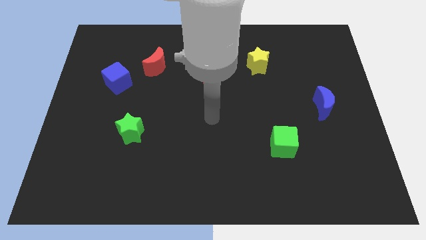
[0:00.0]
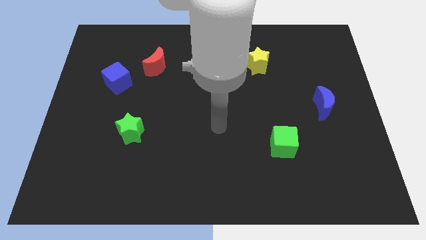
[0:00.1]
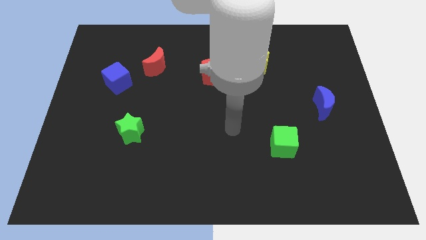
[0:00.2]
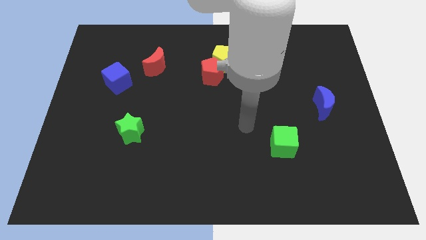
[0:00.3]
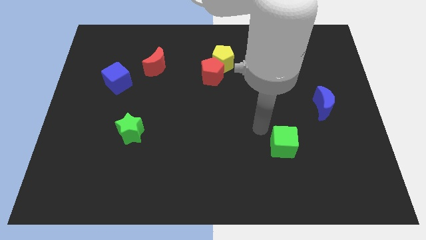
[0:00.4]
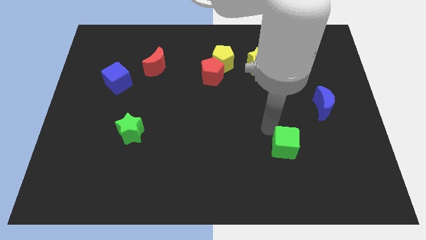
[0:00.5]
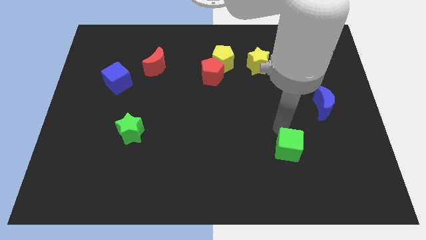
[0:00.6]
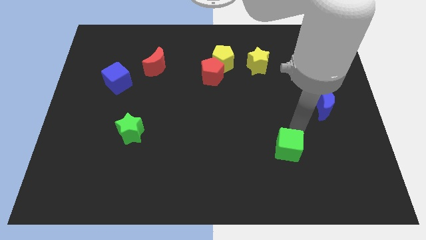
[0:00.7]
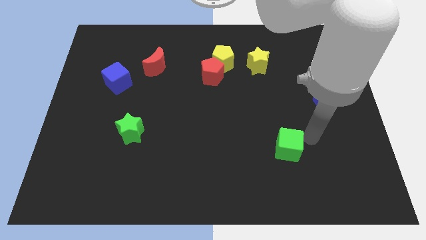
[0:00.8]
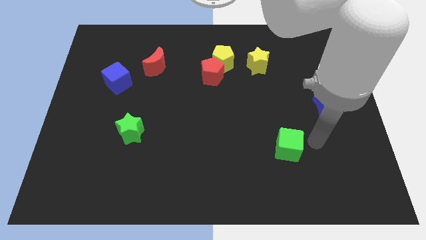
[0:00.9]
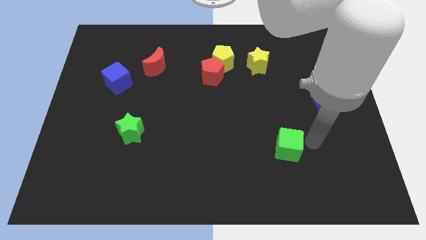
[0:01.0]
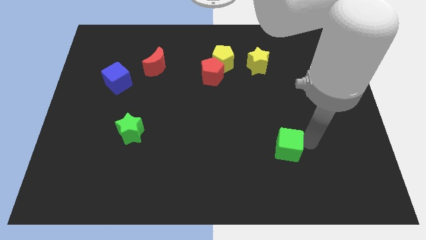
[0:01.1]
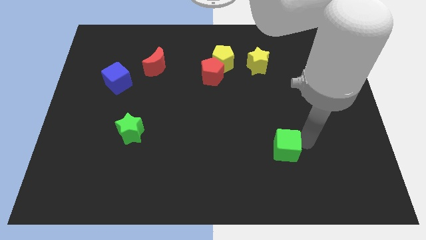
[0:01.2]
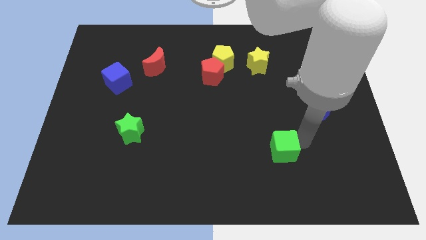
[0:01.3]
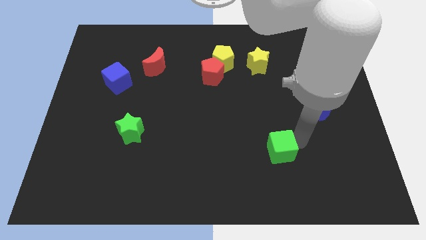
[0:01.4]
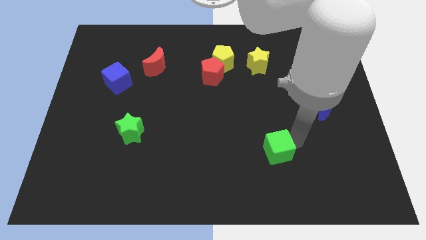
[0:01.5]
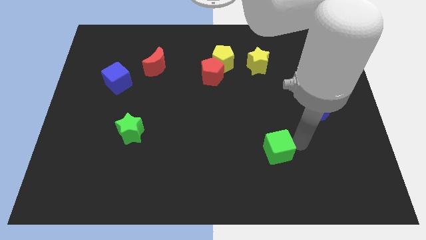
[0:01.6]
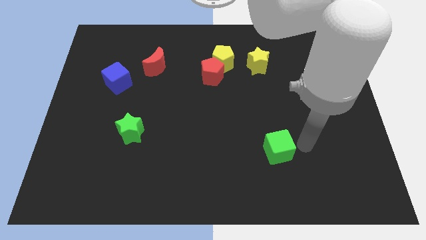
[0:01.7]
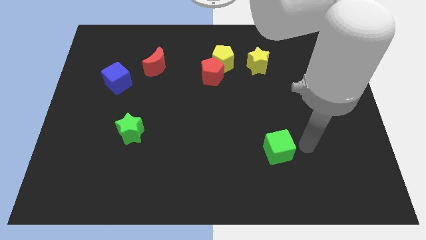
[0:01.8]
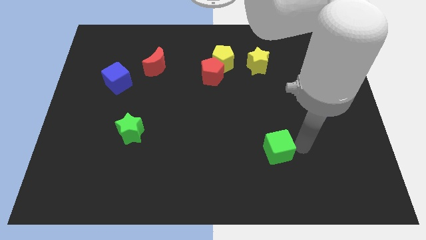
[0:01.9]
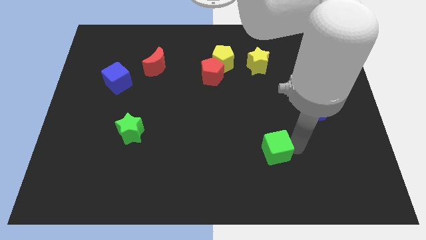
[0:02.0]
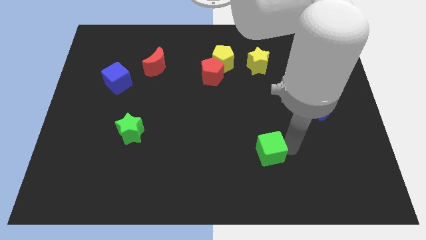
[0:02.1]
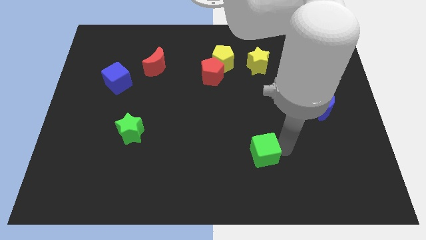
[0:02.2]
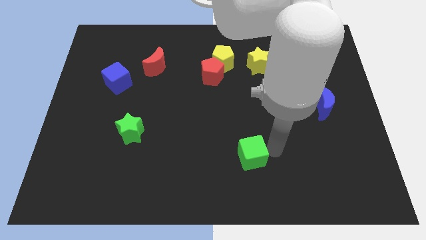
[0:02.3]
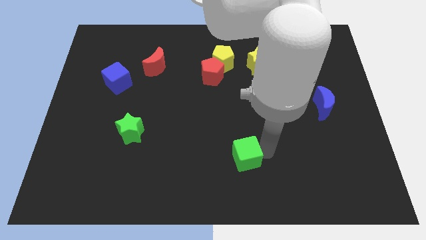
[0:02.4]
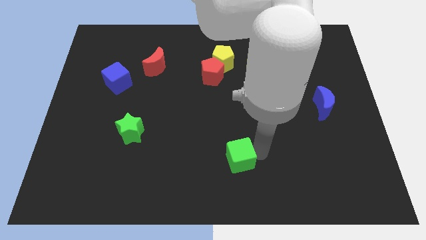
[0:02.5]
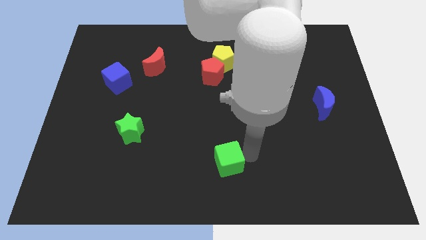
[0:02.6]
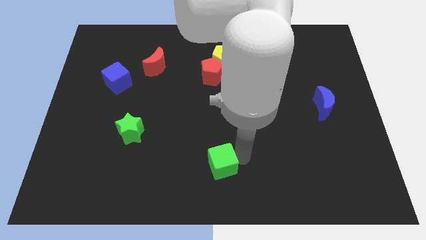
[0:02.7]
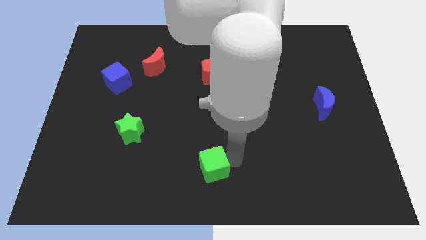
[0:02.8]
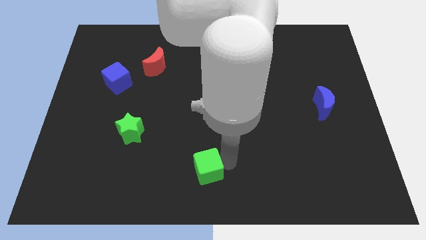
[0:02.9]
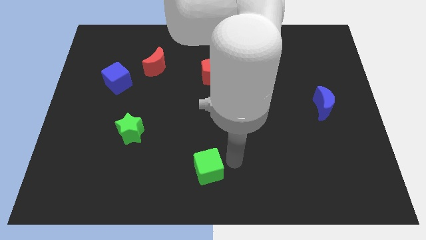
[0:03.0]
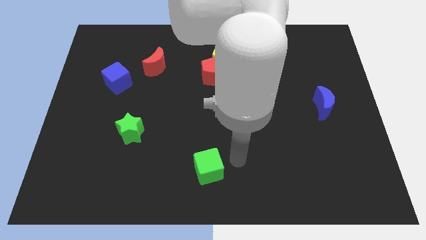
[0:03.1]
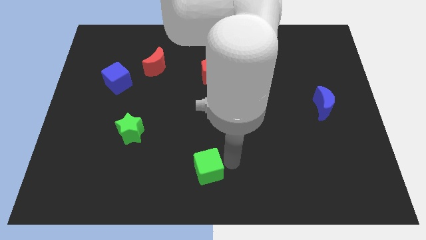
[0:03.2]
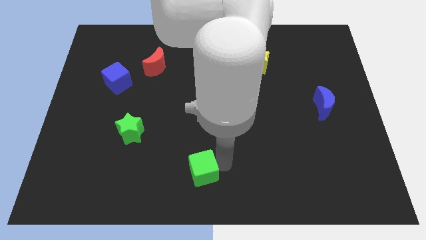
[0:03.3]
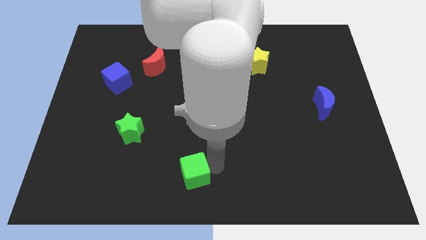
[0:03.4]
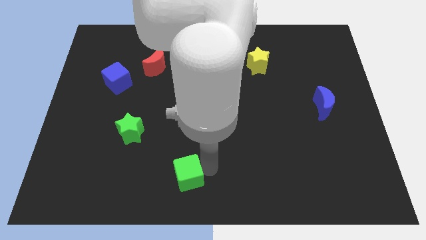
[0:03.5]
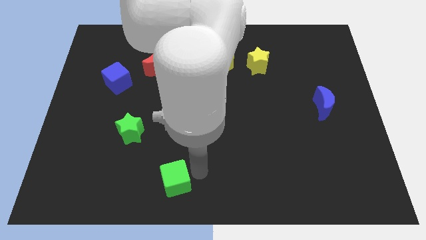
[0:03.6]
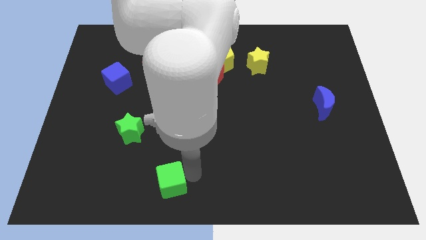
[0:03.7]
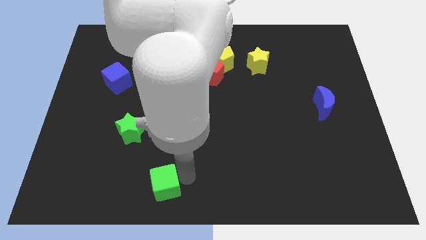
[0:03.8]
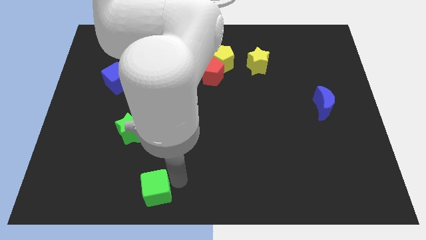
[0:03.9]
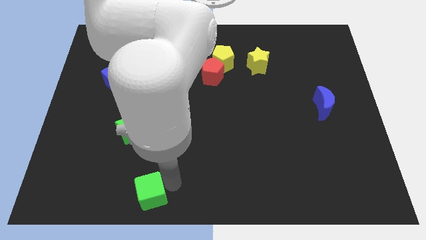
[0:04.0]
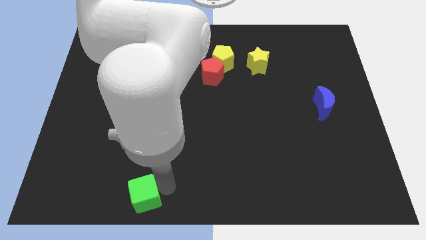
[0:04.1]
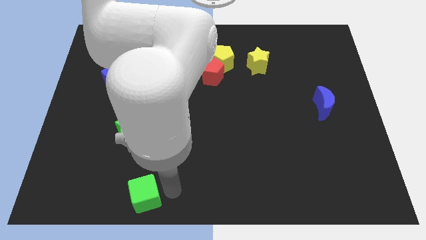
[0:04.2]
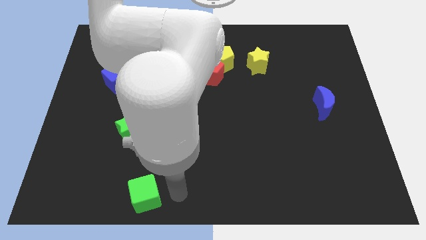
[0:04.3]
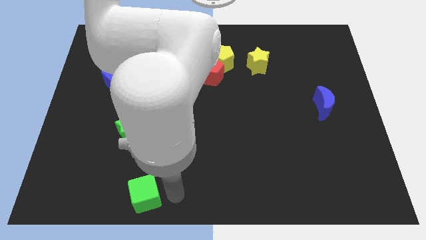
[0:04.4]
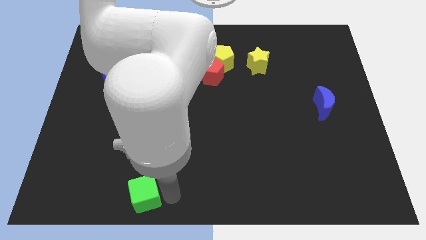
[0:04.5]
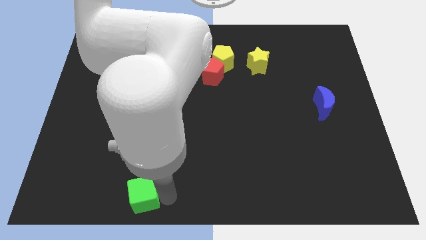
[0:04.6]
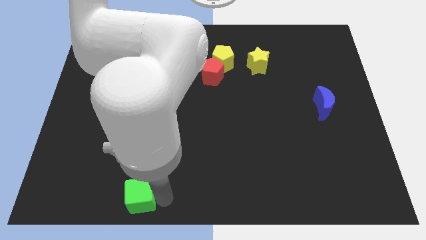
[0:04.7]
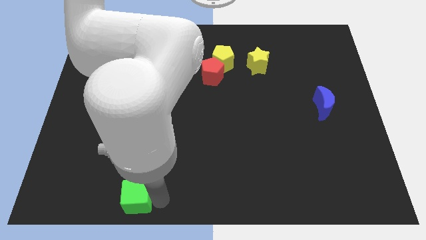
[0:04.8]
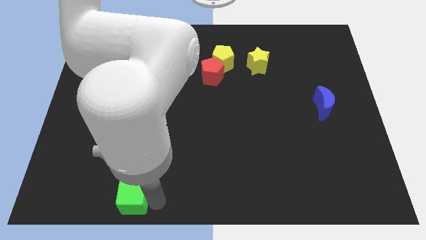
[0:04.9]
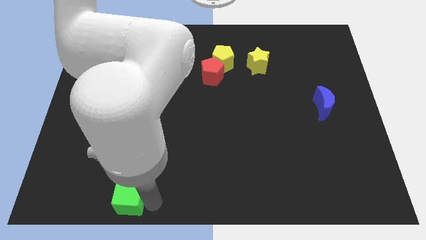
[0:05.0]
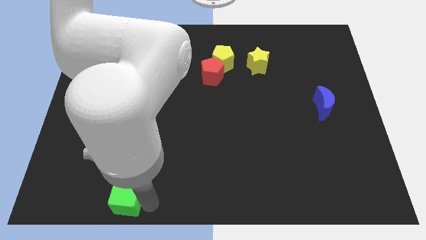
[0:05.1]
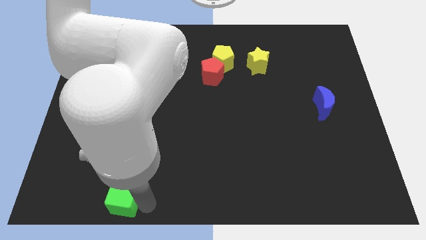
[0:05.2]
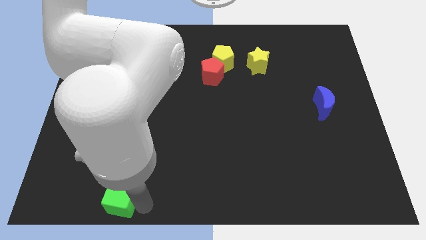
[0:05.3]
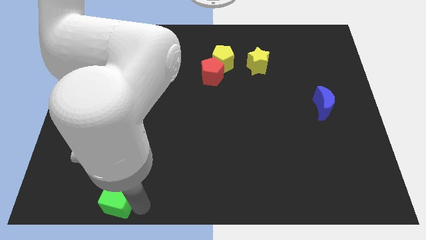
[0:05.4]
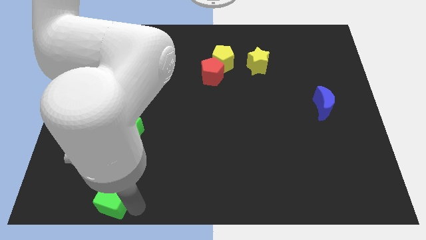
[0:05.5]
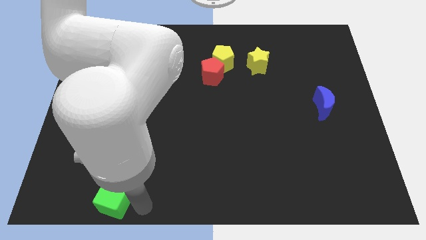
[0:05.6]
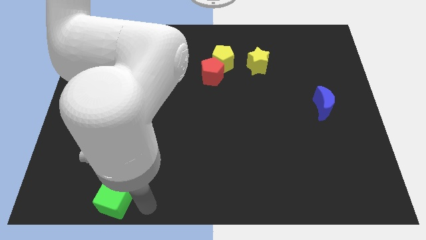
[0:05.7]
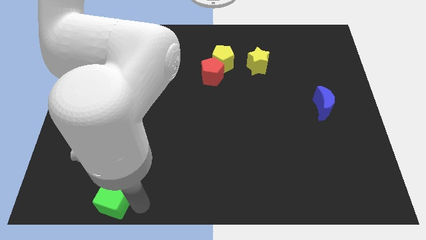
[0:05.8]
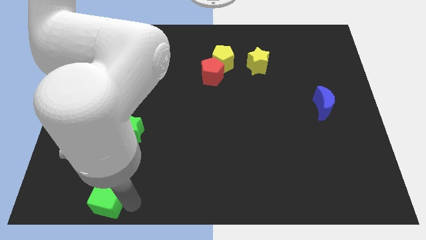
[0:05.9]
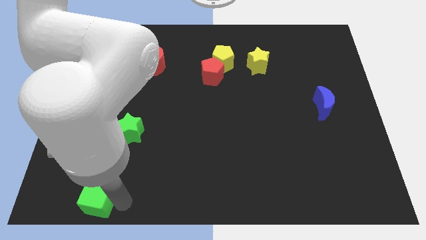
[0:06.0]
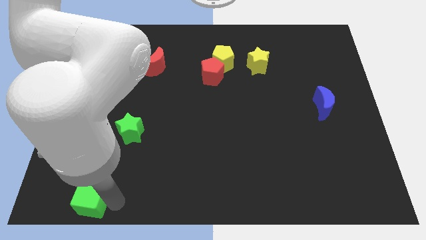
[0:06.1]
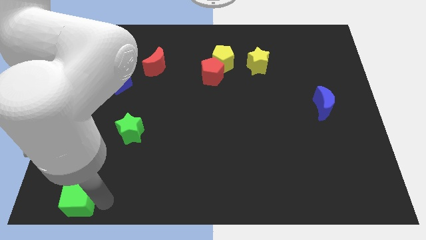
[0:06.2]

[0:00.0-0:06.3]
push the green cube to the bottom left corner

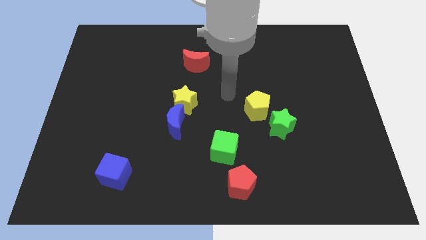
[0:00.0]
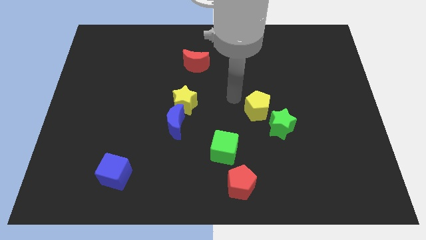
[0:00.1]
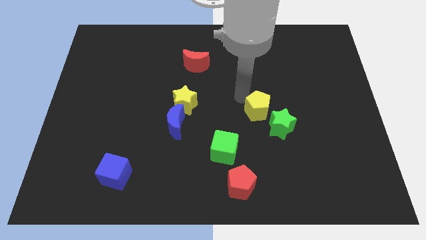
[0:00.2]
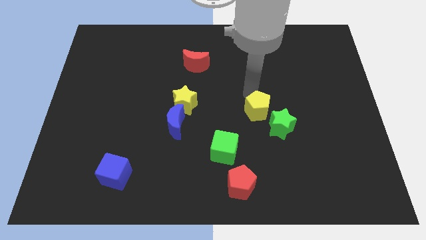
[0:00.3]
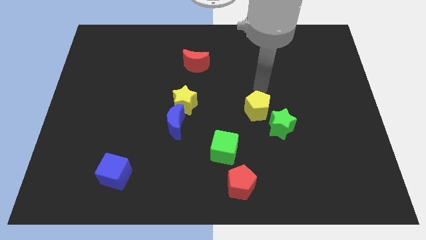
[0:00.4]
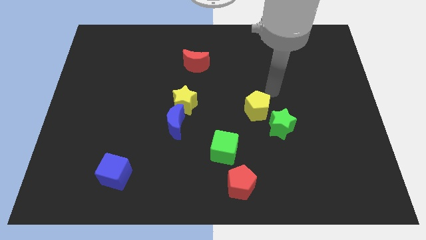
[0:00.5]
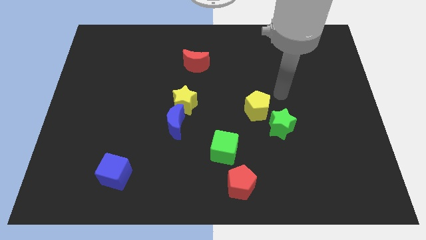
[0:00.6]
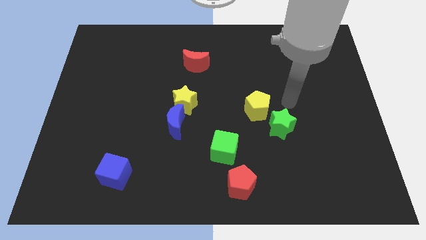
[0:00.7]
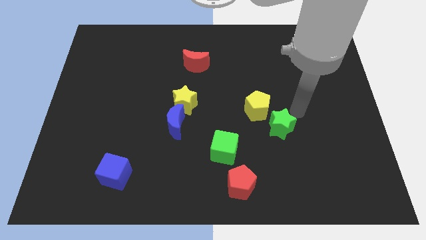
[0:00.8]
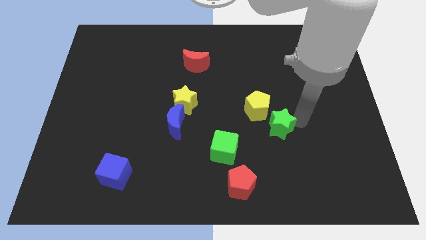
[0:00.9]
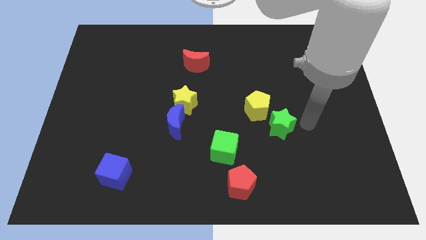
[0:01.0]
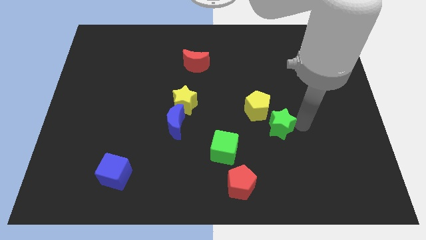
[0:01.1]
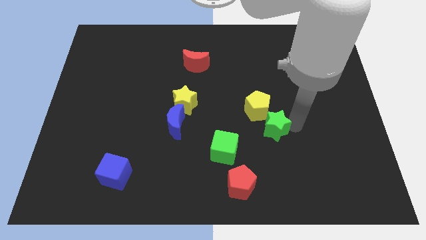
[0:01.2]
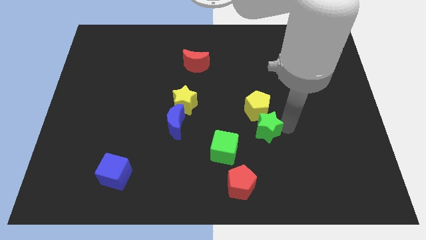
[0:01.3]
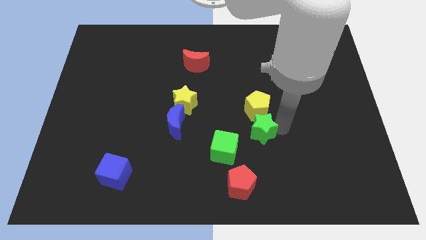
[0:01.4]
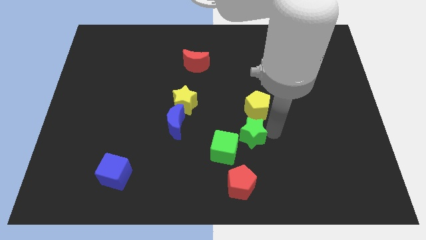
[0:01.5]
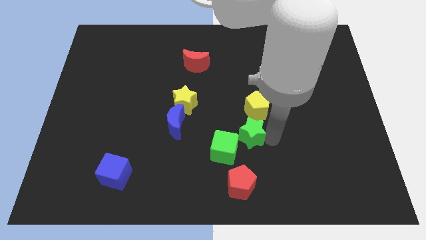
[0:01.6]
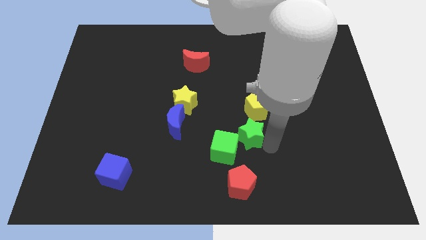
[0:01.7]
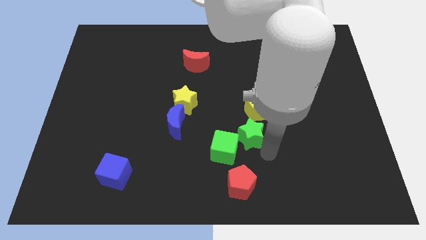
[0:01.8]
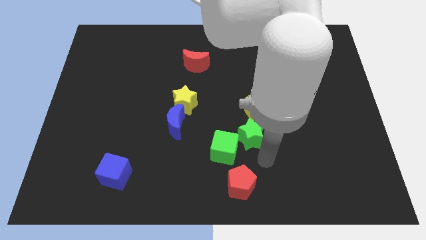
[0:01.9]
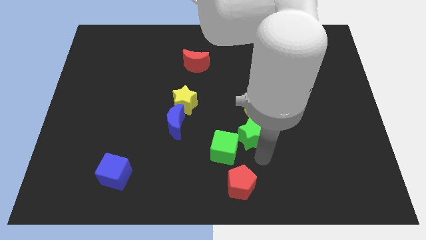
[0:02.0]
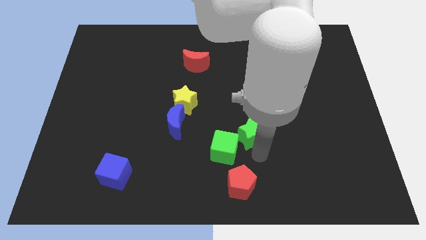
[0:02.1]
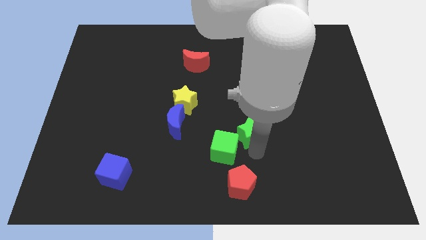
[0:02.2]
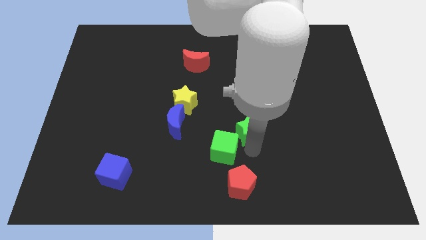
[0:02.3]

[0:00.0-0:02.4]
put the green star to the middle
